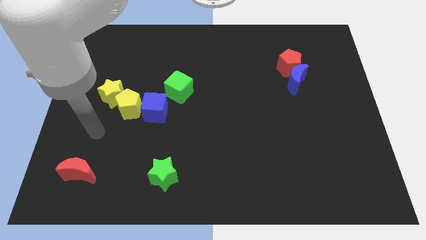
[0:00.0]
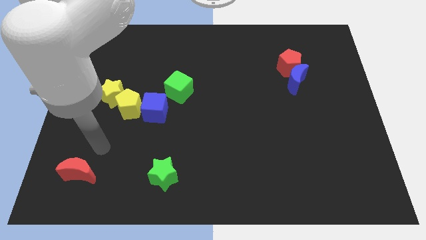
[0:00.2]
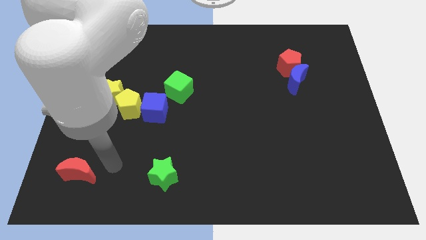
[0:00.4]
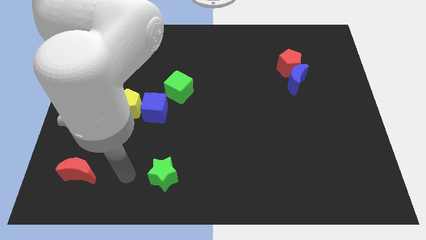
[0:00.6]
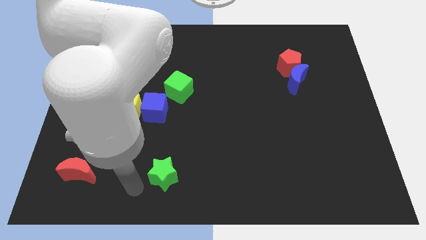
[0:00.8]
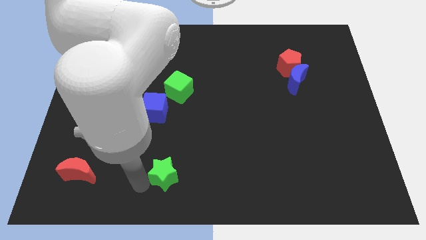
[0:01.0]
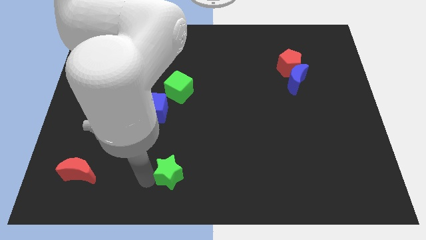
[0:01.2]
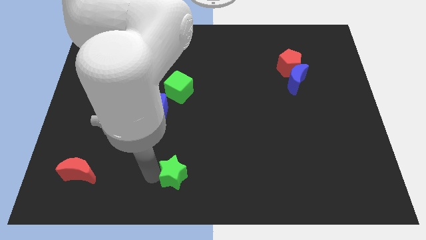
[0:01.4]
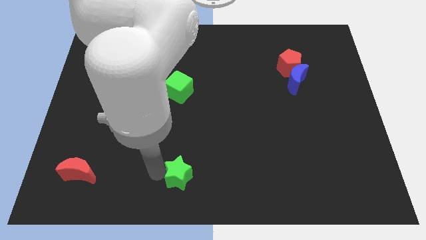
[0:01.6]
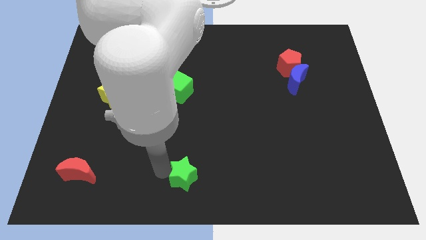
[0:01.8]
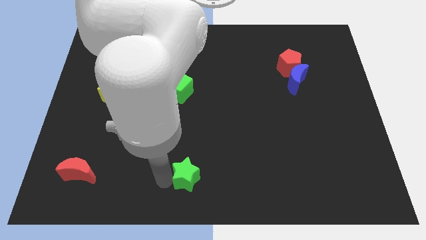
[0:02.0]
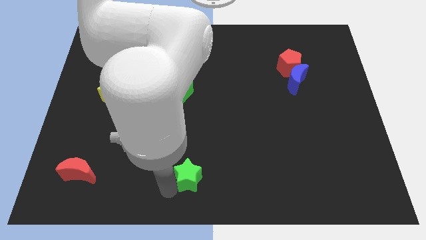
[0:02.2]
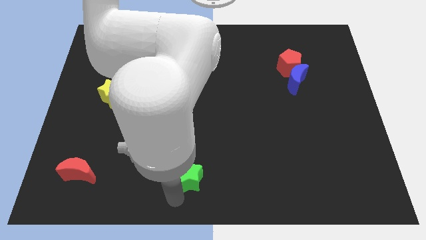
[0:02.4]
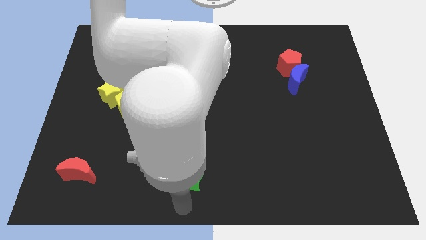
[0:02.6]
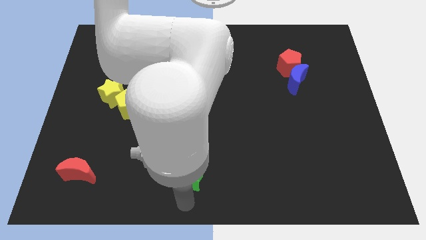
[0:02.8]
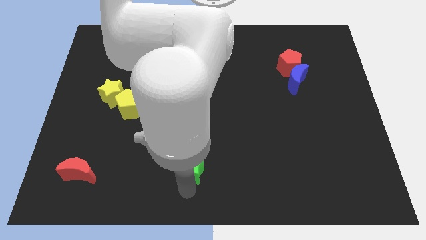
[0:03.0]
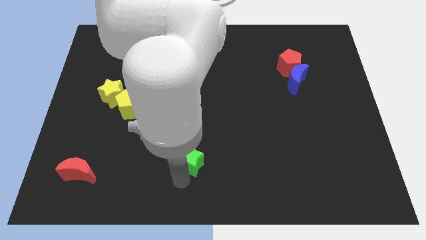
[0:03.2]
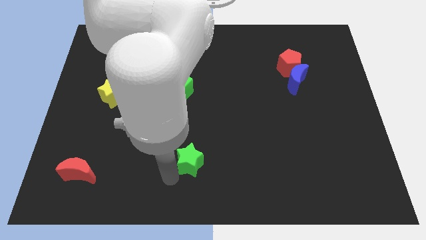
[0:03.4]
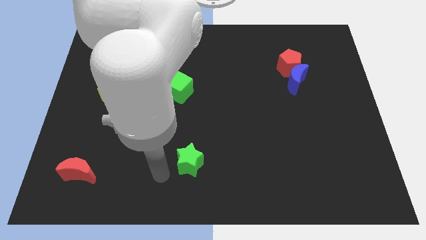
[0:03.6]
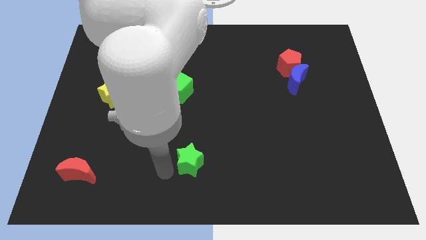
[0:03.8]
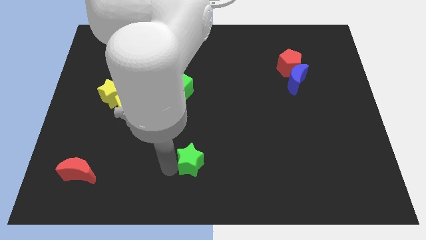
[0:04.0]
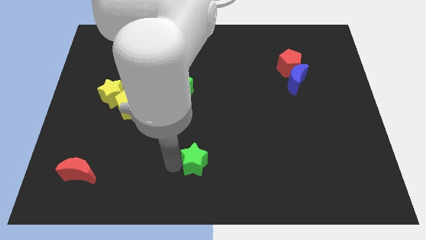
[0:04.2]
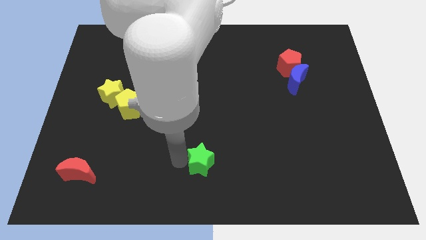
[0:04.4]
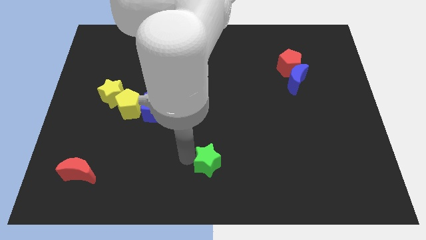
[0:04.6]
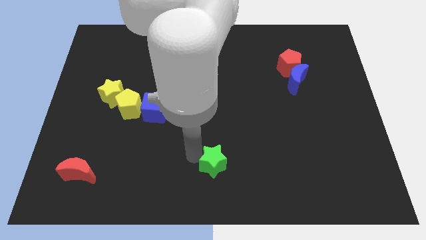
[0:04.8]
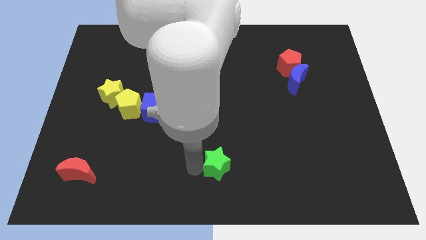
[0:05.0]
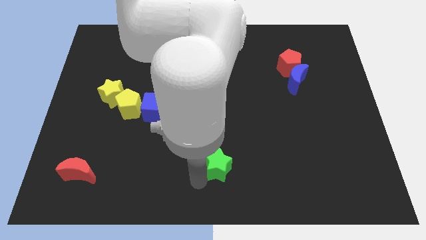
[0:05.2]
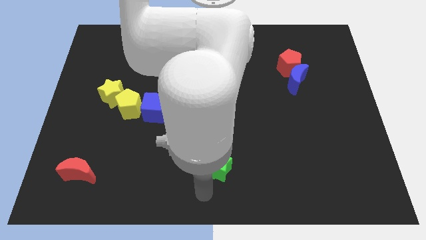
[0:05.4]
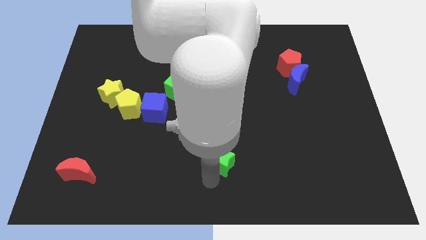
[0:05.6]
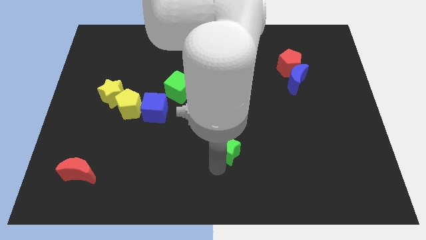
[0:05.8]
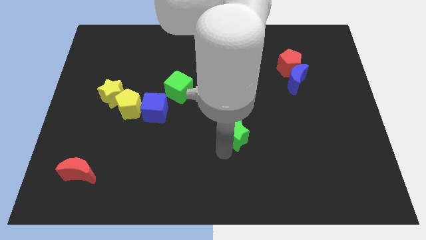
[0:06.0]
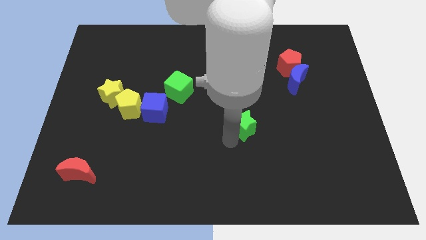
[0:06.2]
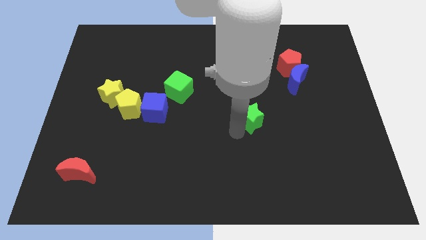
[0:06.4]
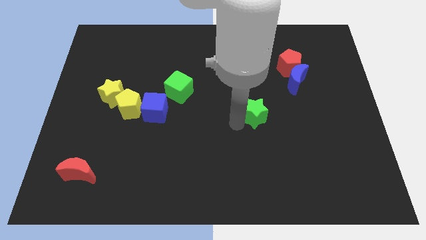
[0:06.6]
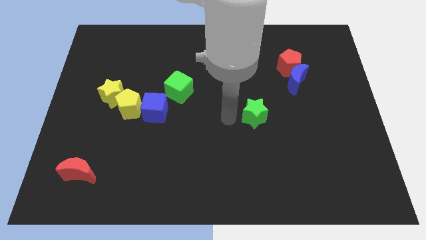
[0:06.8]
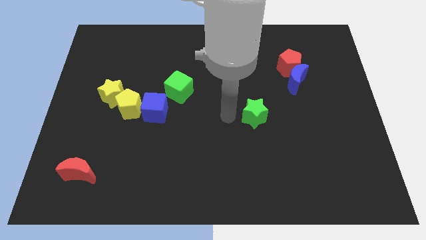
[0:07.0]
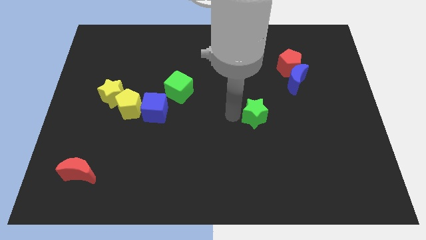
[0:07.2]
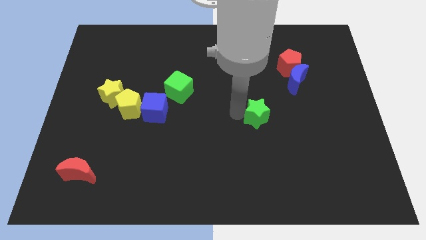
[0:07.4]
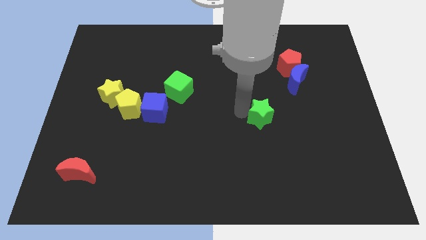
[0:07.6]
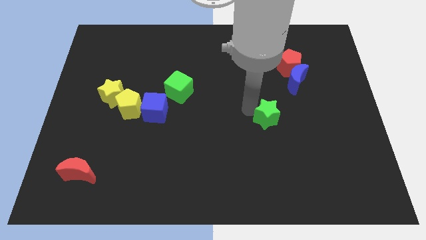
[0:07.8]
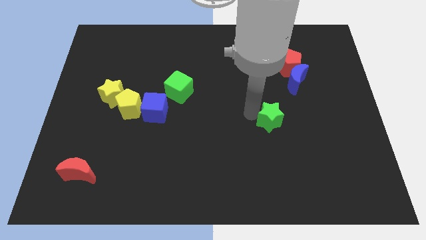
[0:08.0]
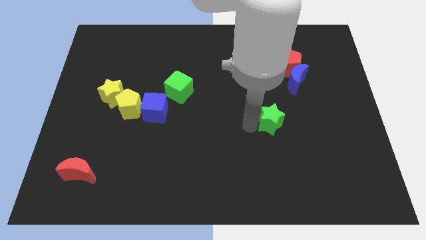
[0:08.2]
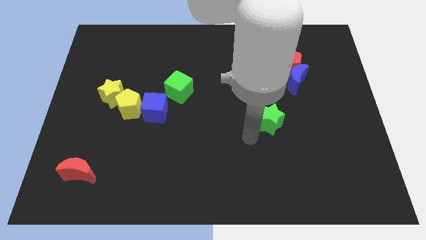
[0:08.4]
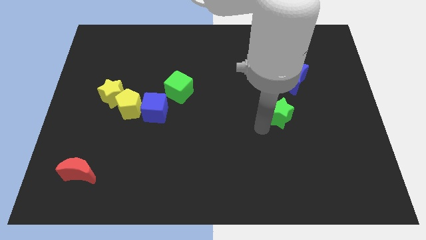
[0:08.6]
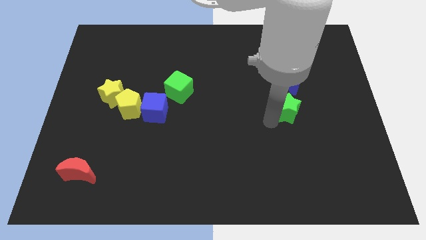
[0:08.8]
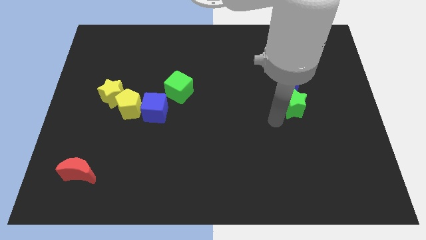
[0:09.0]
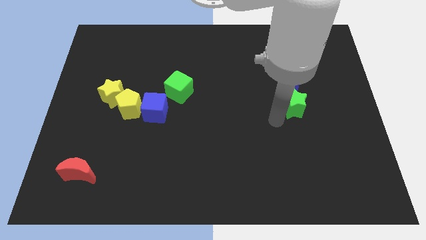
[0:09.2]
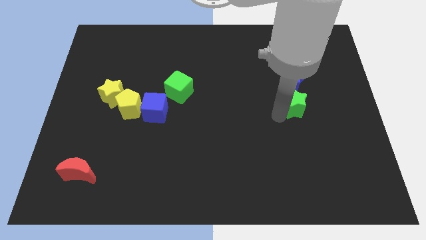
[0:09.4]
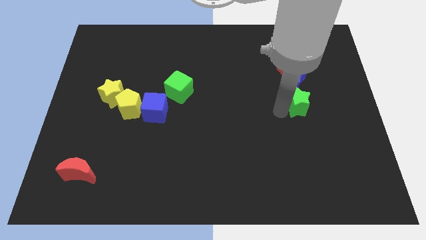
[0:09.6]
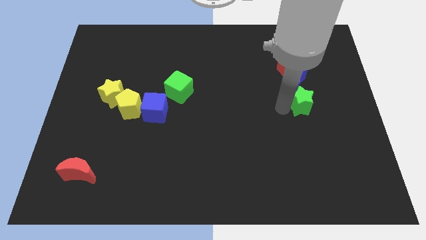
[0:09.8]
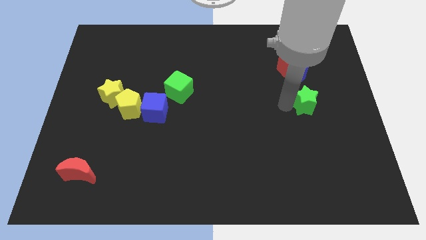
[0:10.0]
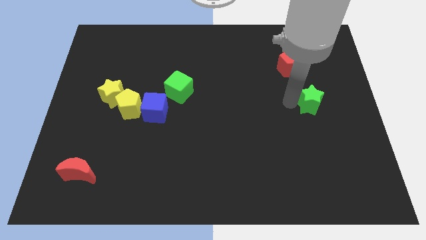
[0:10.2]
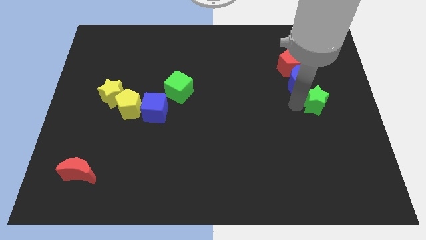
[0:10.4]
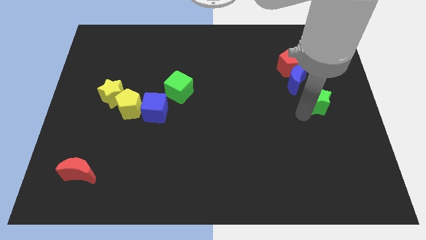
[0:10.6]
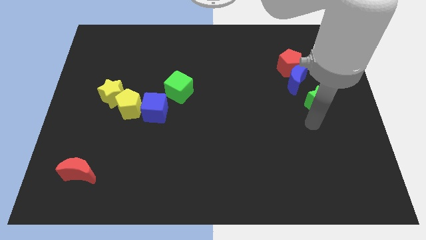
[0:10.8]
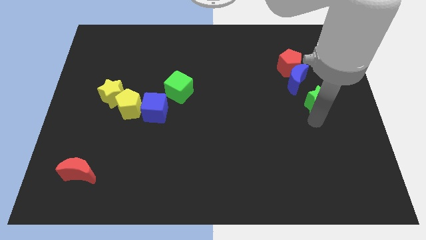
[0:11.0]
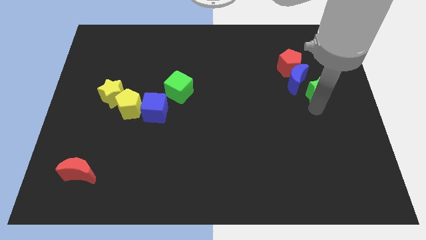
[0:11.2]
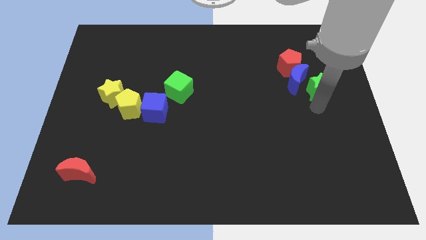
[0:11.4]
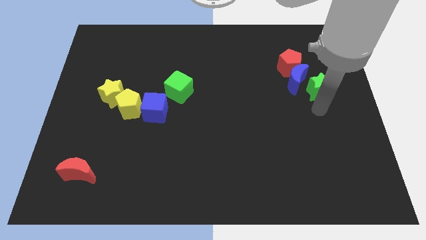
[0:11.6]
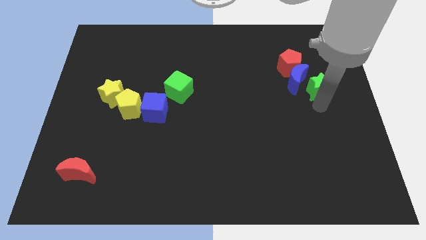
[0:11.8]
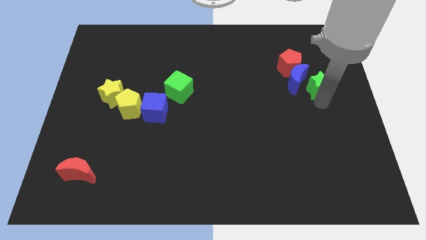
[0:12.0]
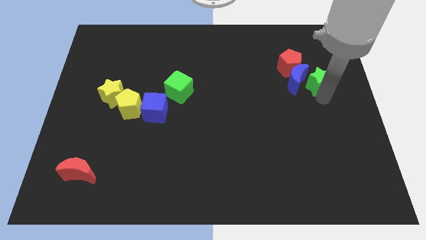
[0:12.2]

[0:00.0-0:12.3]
push the green star to the top right of the blue moon

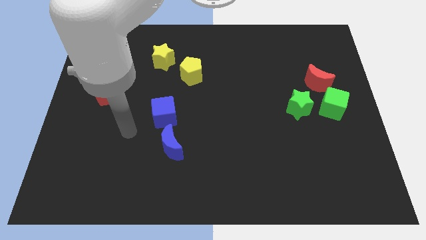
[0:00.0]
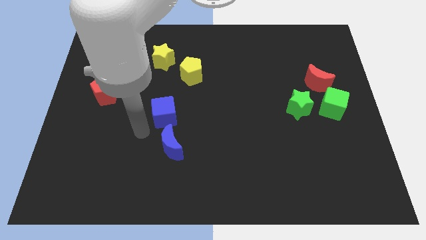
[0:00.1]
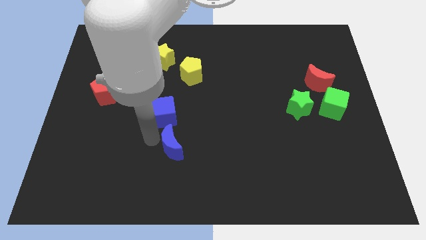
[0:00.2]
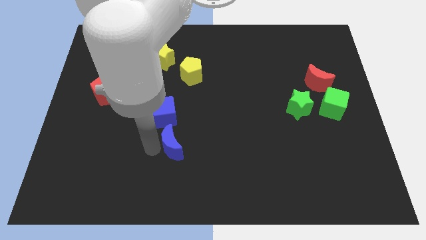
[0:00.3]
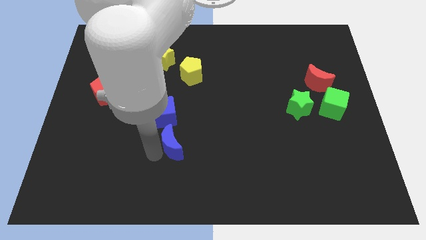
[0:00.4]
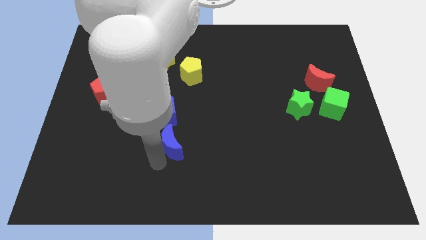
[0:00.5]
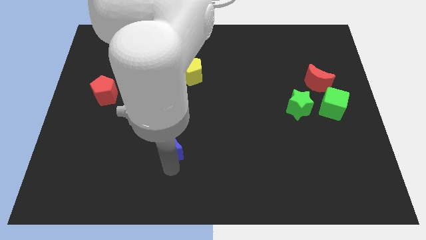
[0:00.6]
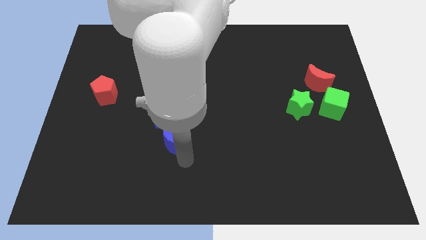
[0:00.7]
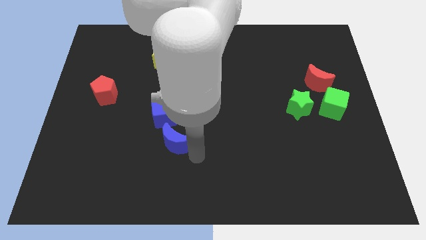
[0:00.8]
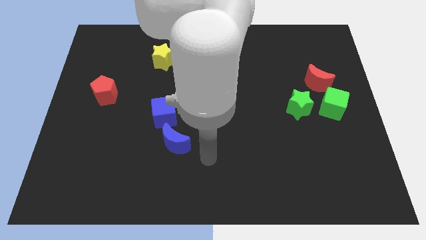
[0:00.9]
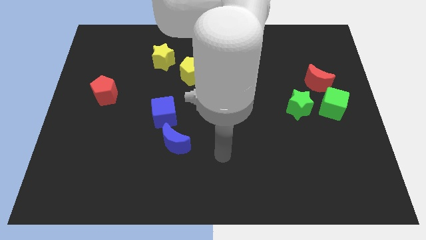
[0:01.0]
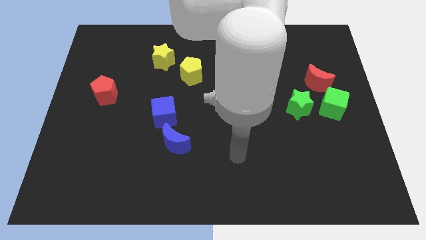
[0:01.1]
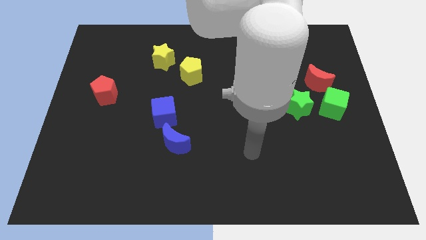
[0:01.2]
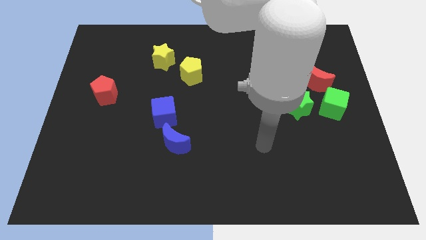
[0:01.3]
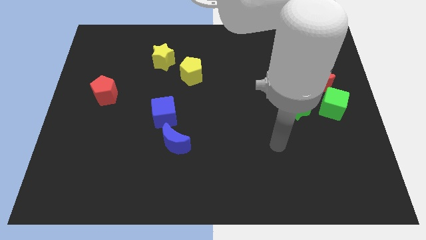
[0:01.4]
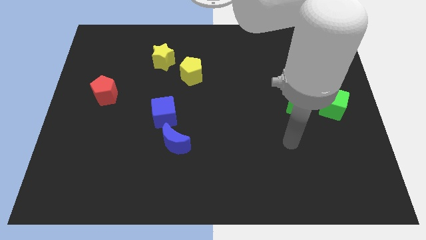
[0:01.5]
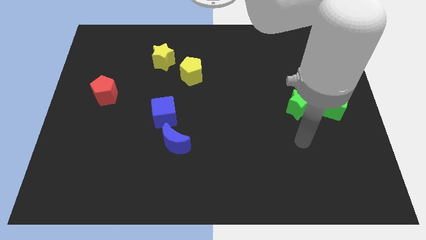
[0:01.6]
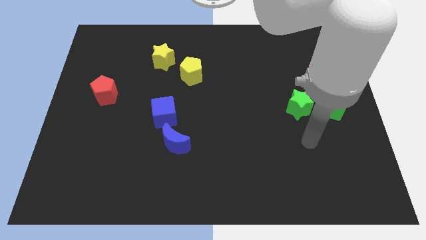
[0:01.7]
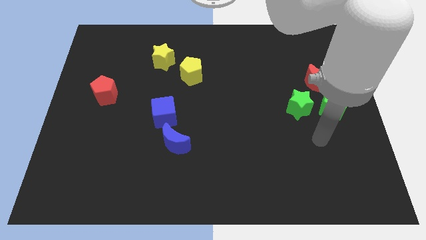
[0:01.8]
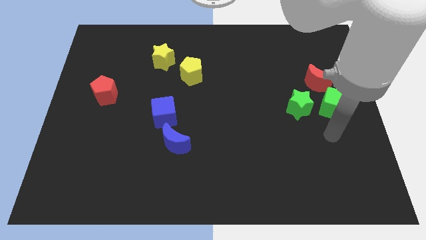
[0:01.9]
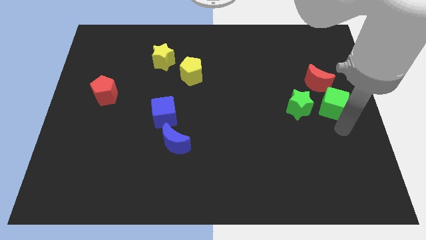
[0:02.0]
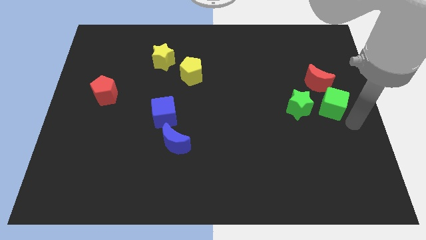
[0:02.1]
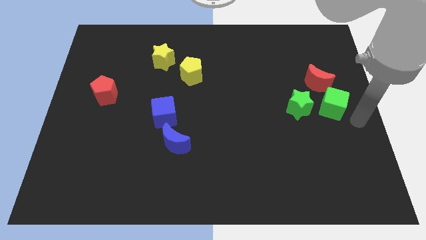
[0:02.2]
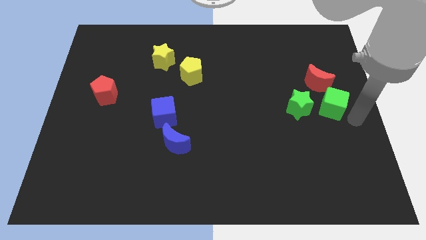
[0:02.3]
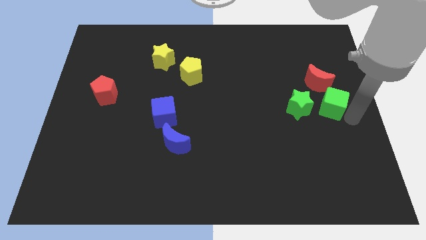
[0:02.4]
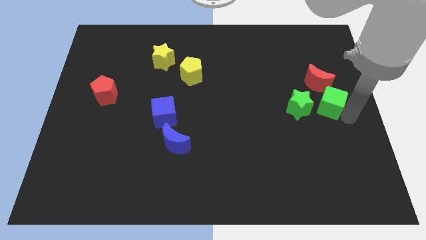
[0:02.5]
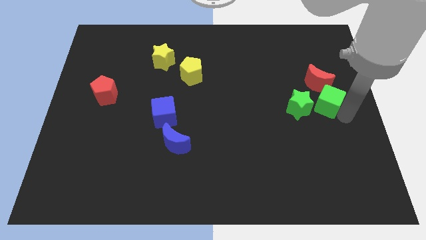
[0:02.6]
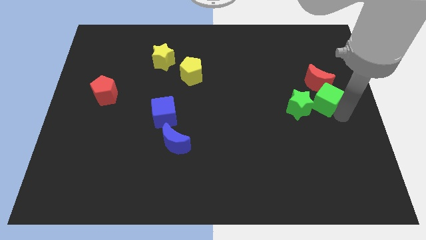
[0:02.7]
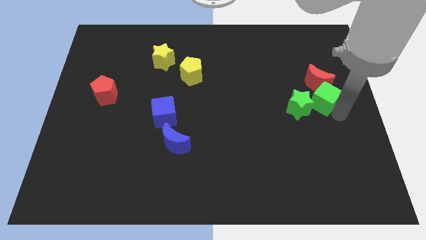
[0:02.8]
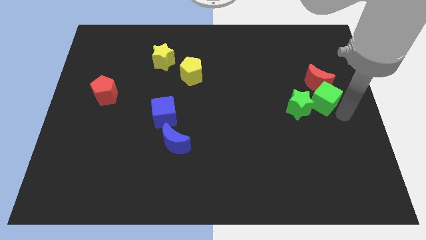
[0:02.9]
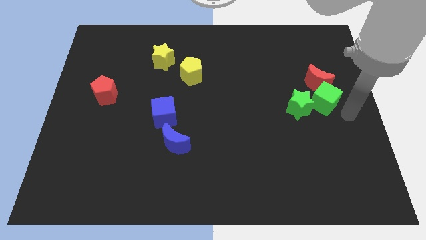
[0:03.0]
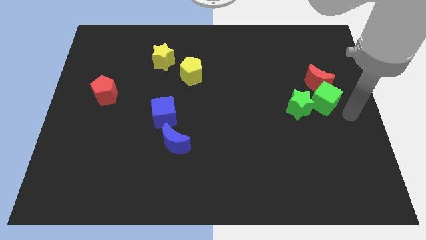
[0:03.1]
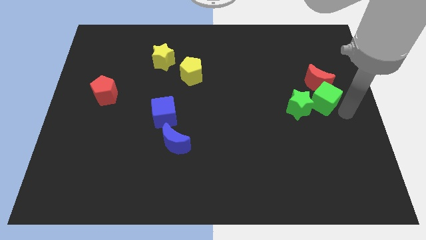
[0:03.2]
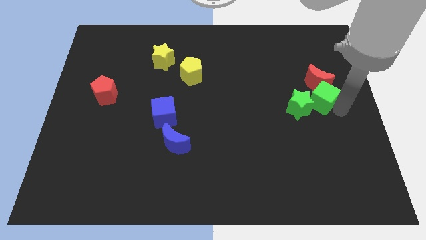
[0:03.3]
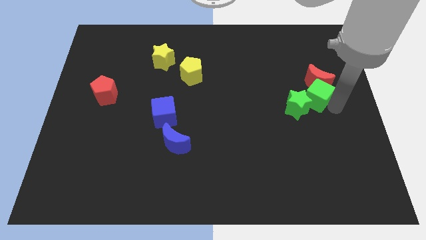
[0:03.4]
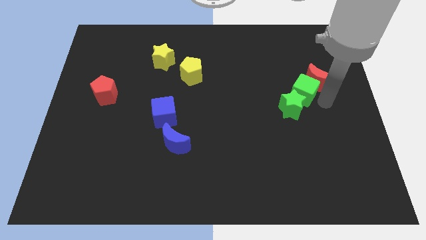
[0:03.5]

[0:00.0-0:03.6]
slide the green cube to the left side of the red moon
